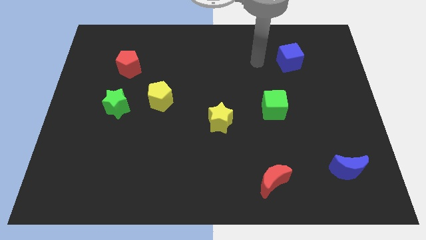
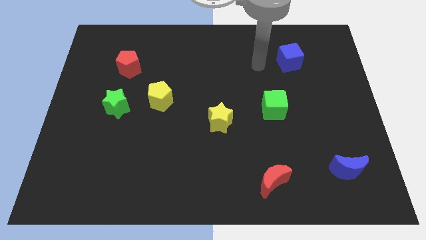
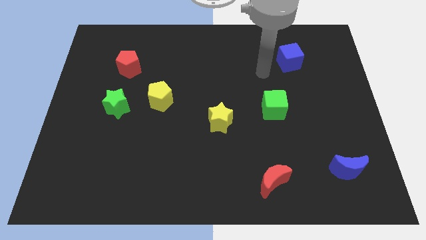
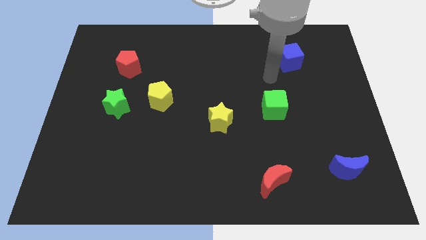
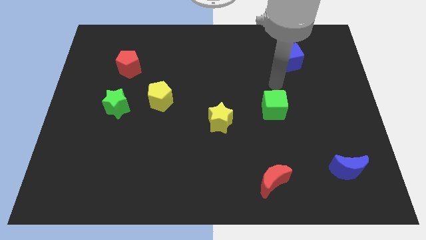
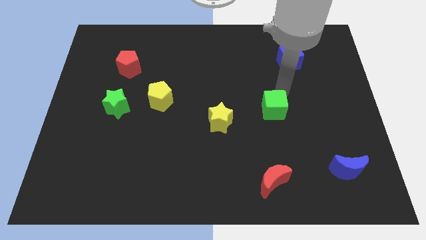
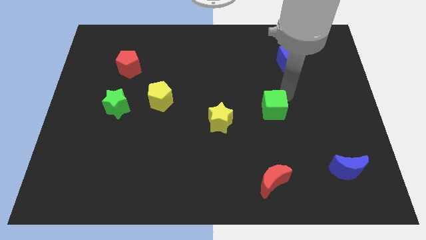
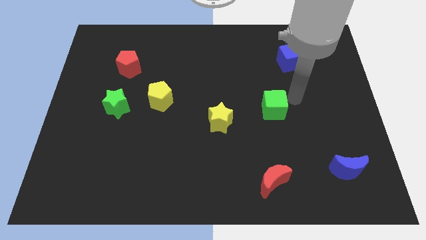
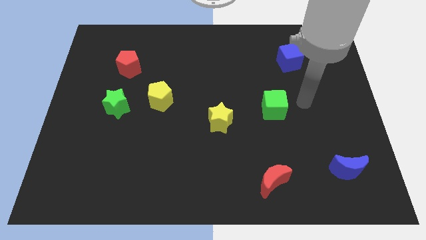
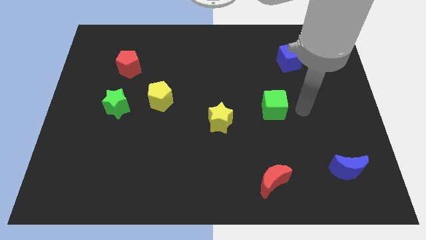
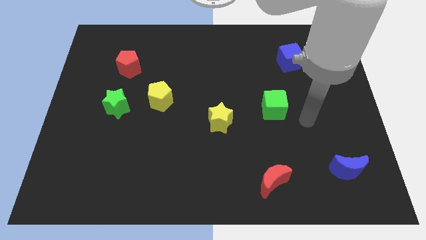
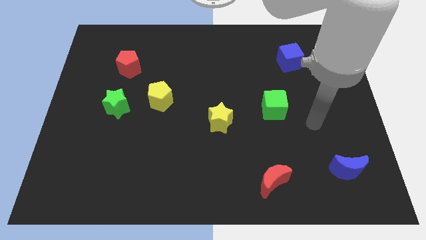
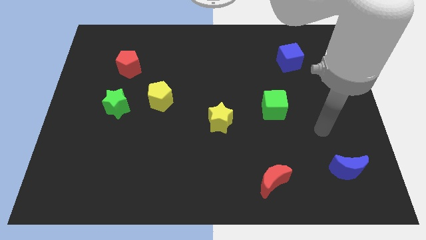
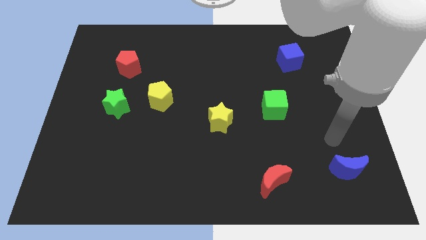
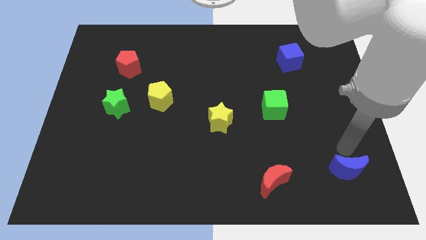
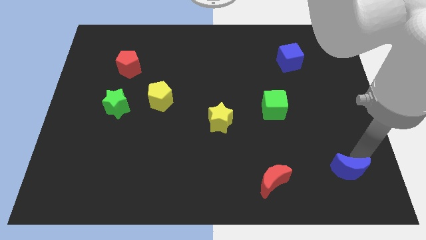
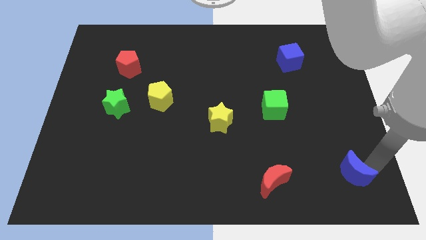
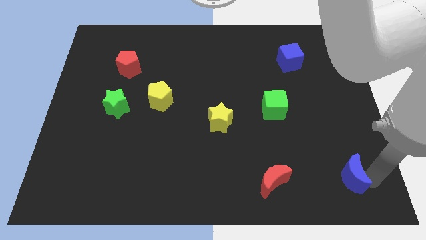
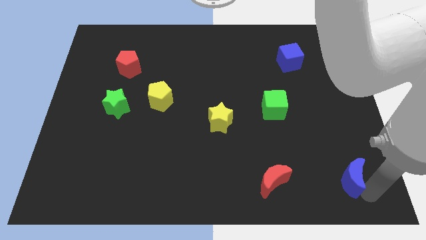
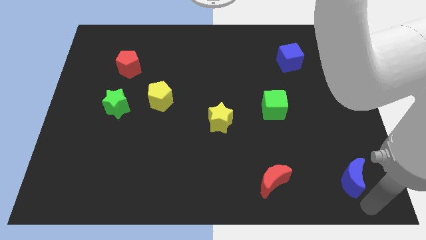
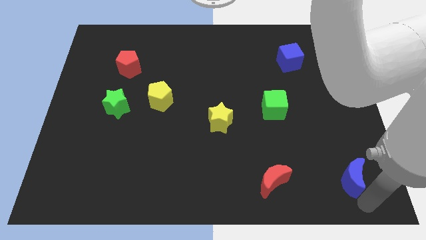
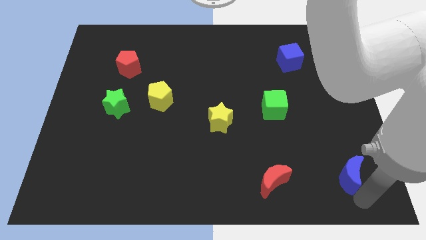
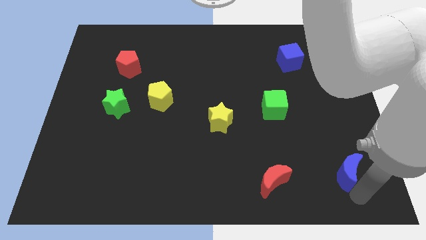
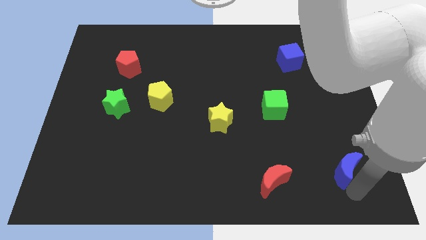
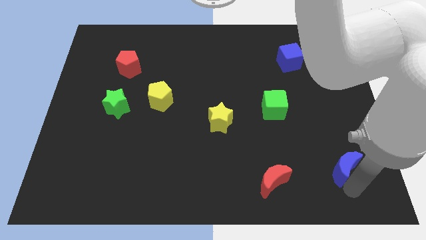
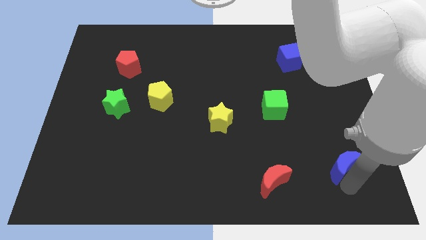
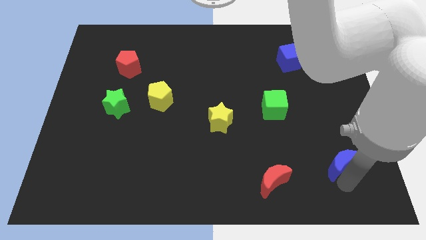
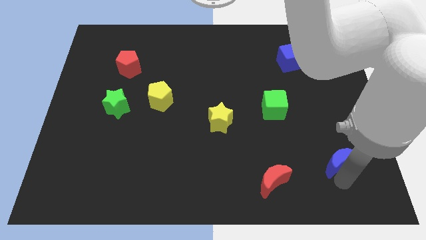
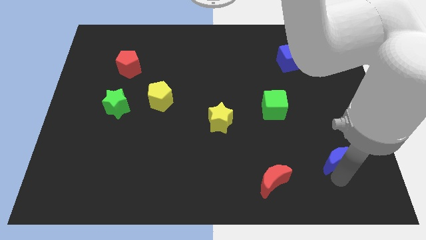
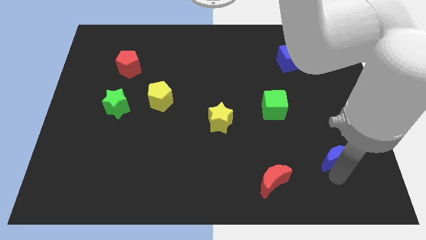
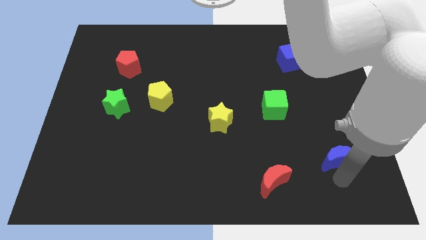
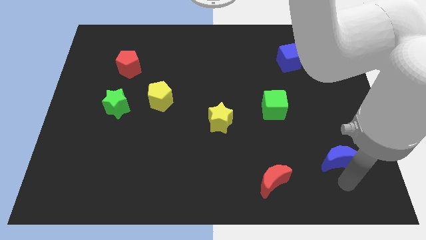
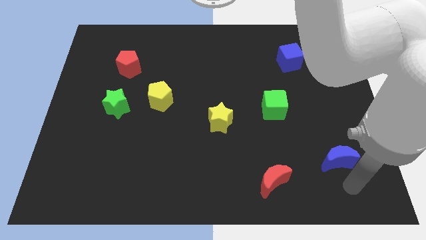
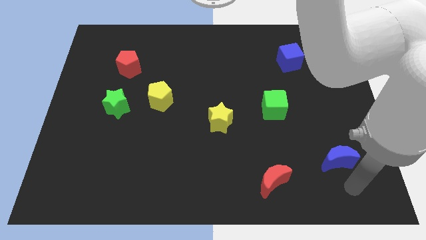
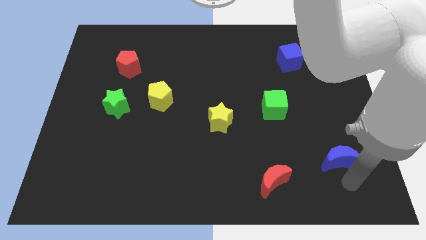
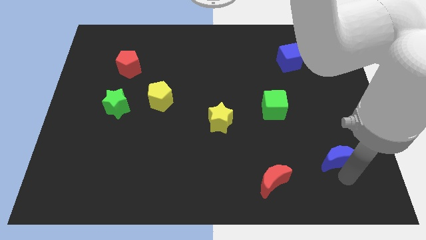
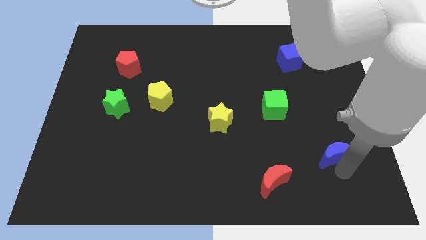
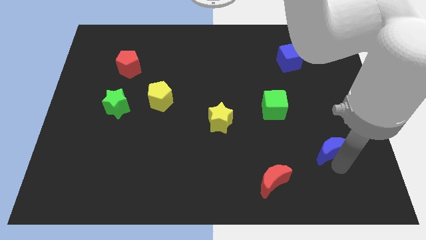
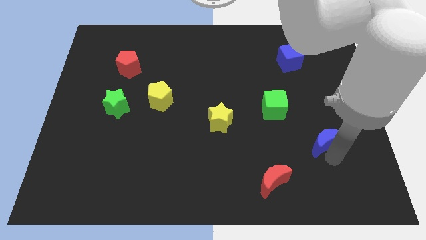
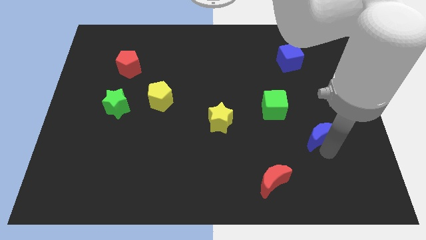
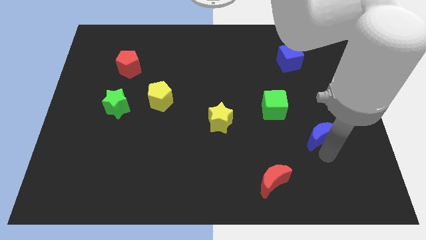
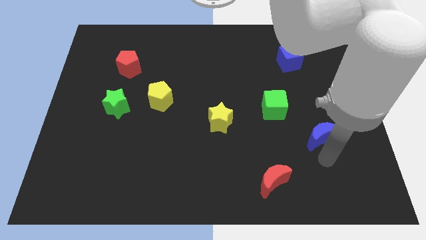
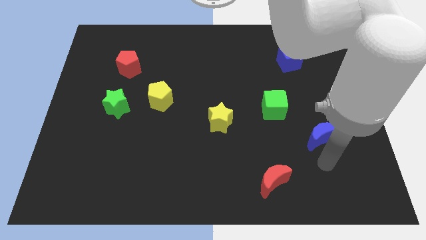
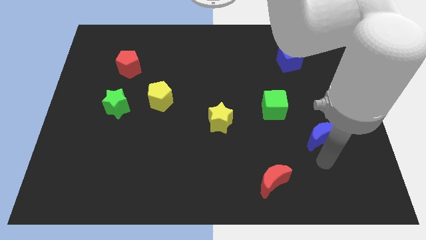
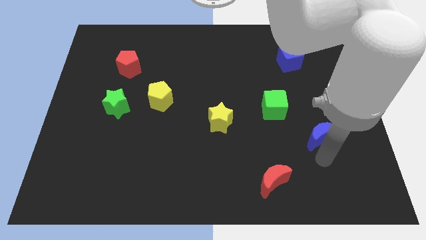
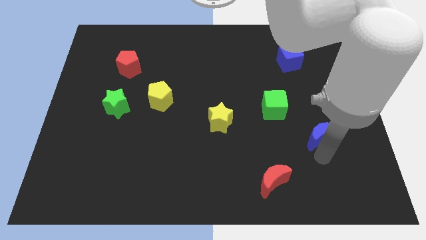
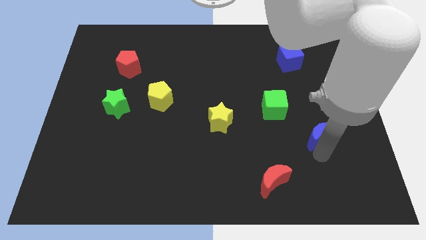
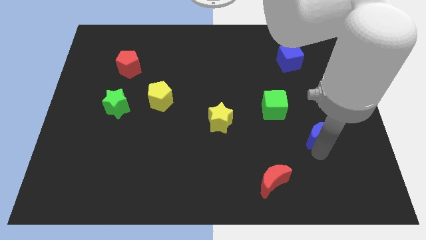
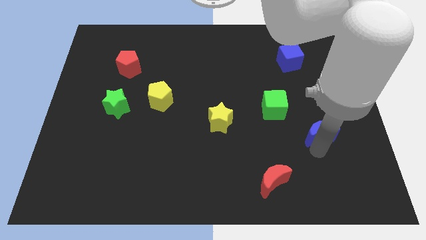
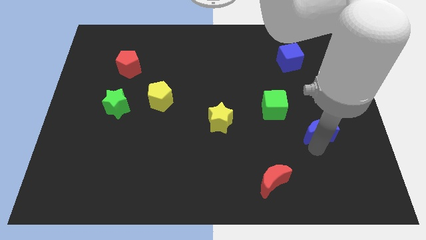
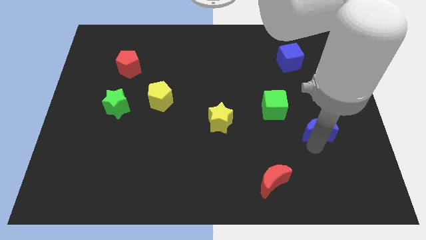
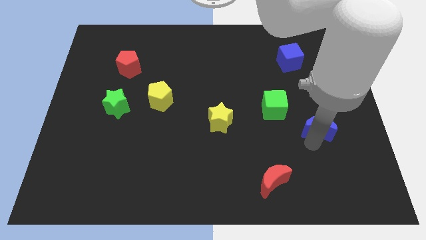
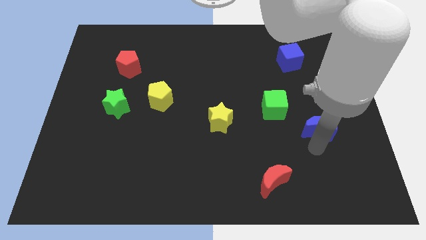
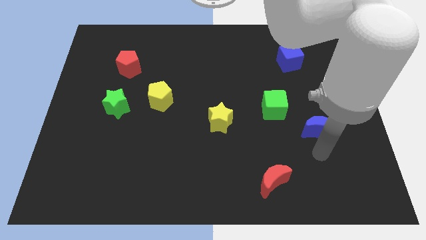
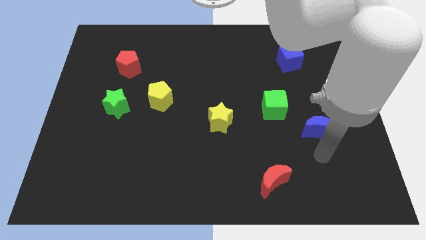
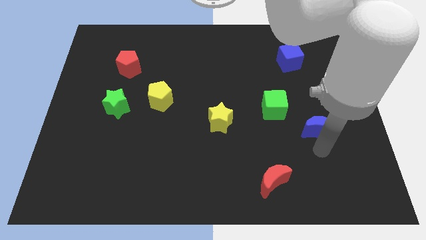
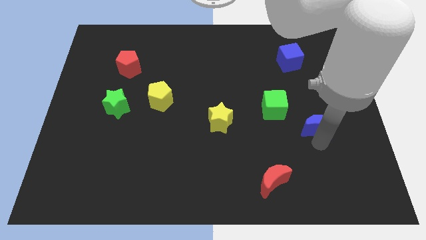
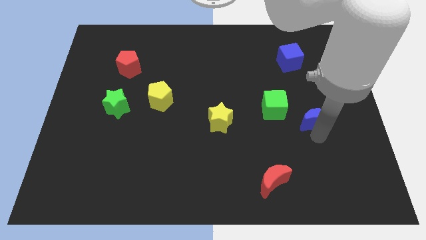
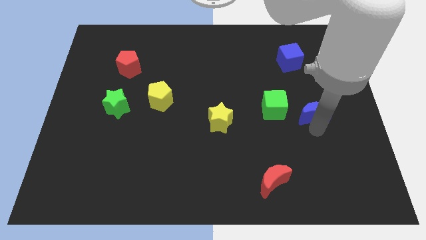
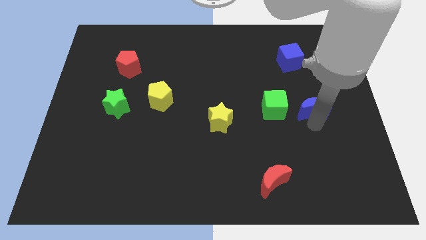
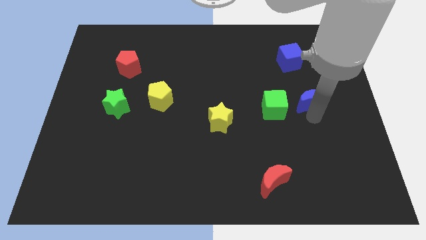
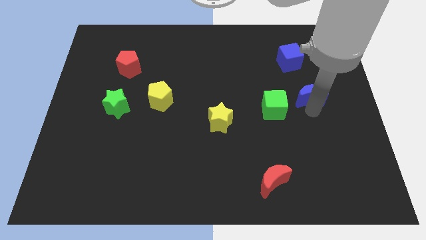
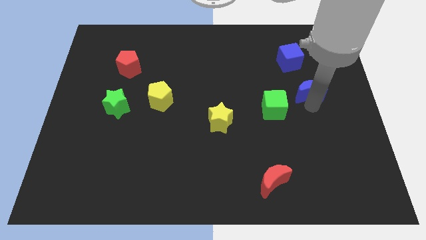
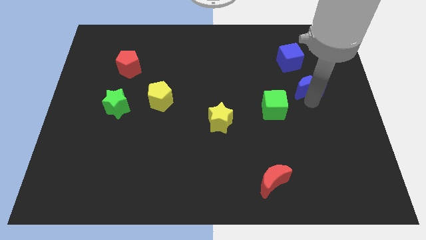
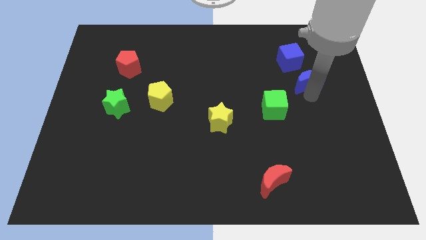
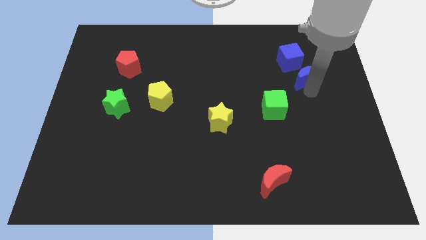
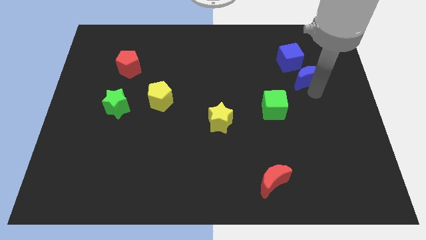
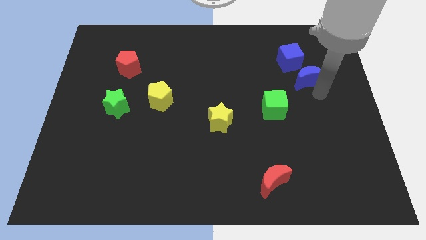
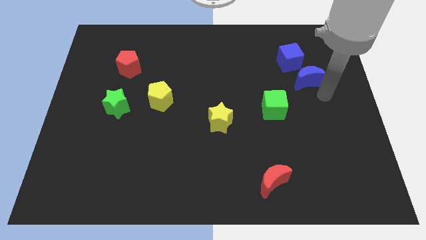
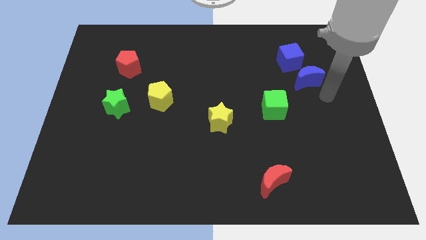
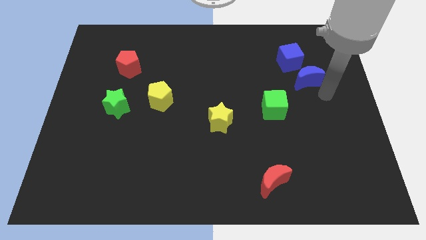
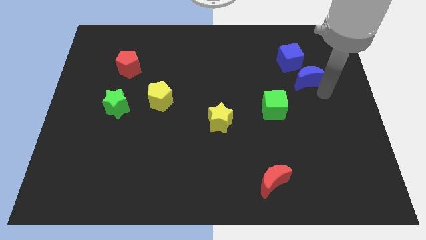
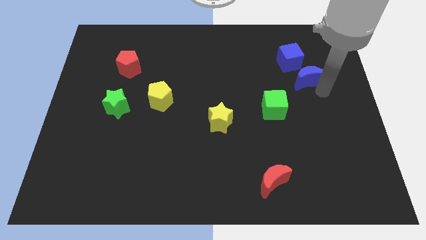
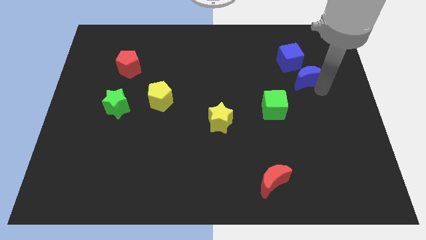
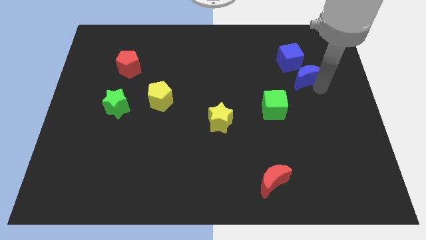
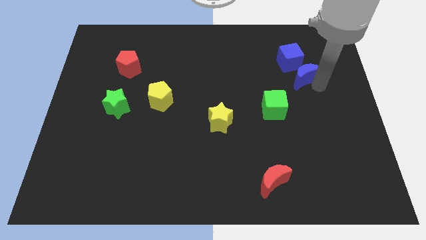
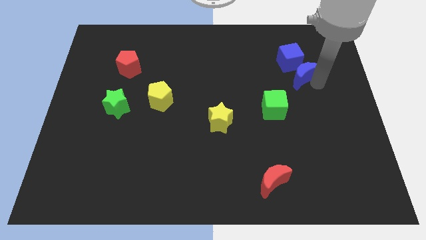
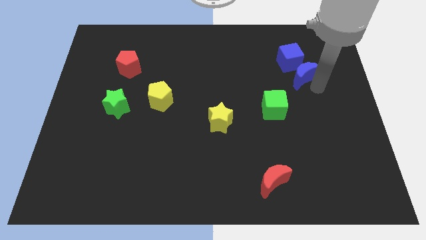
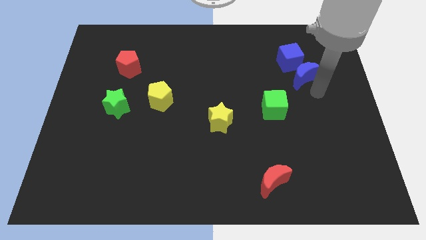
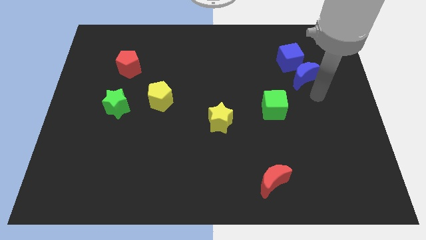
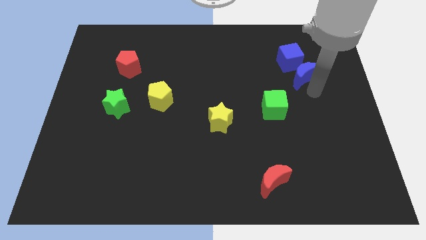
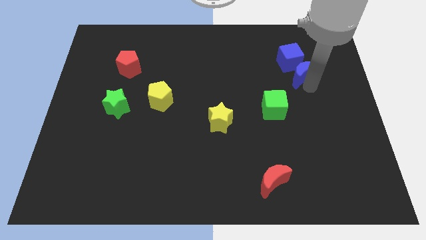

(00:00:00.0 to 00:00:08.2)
put the blue moon next to the blue cube
